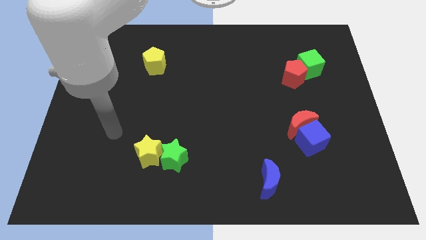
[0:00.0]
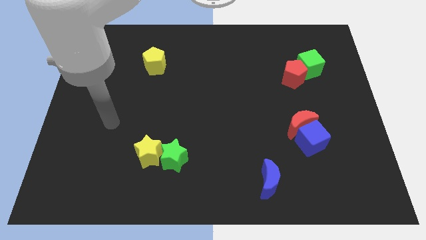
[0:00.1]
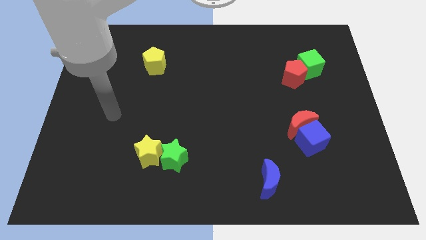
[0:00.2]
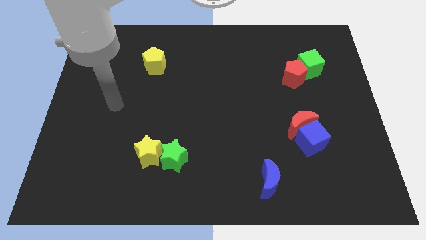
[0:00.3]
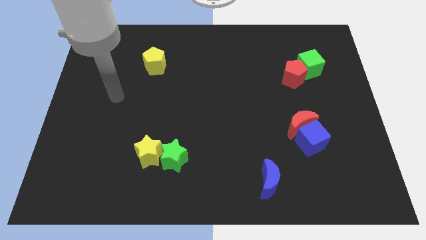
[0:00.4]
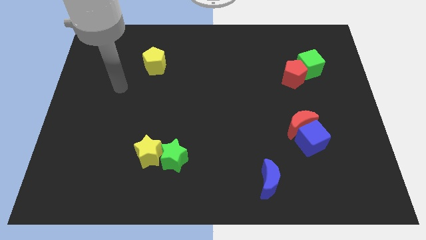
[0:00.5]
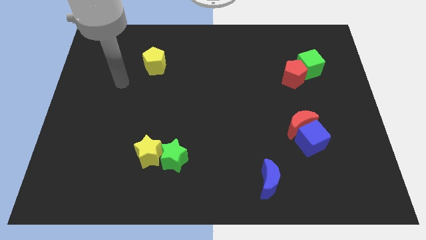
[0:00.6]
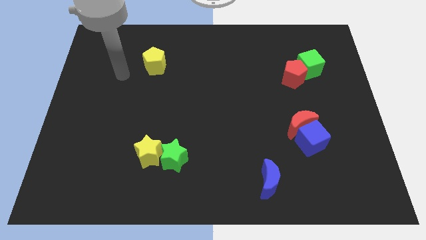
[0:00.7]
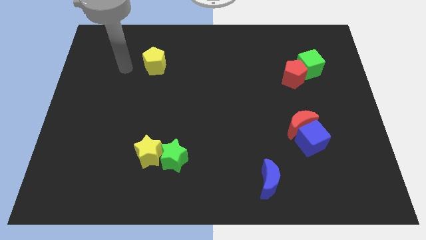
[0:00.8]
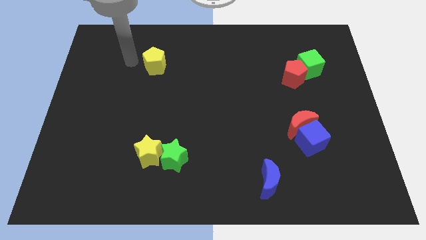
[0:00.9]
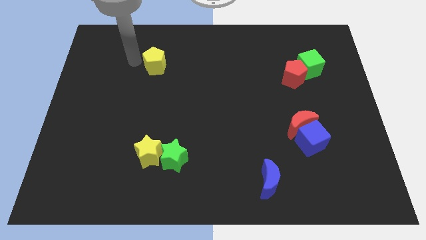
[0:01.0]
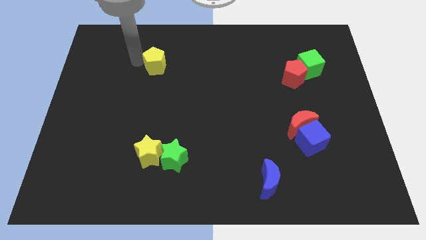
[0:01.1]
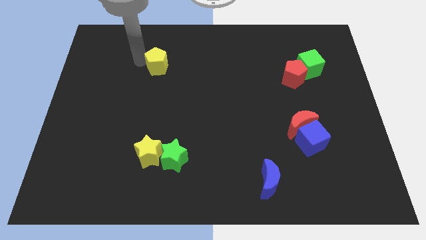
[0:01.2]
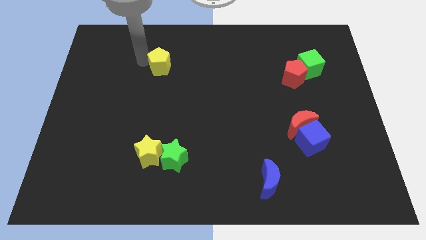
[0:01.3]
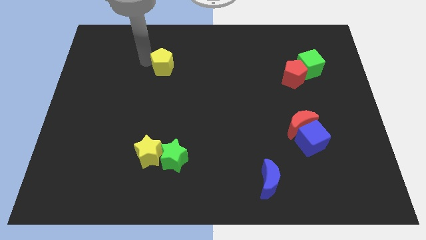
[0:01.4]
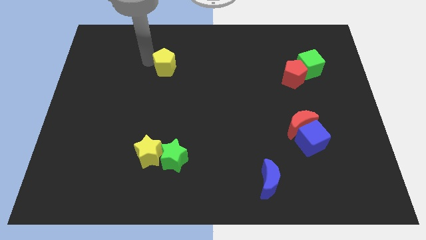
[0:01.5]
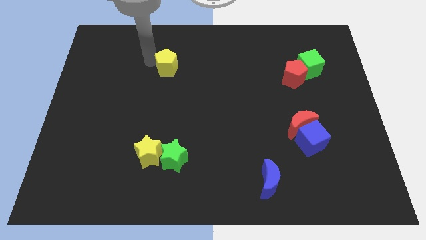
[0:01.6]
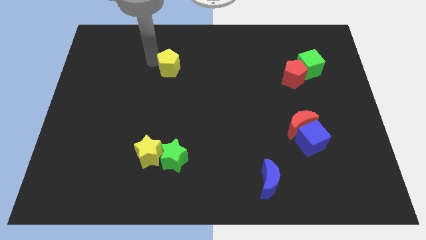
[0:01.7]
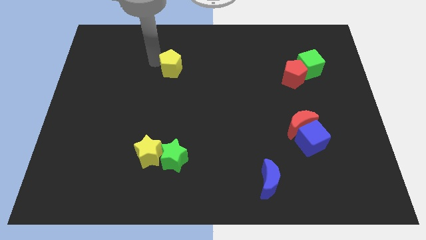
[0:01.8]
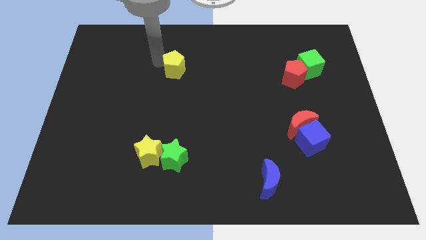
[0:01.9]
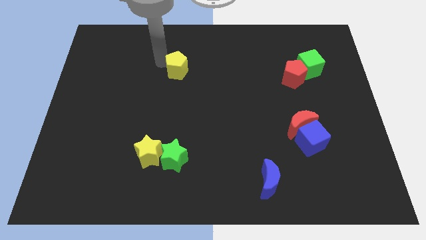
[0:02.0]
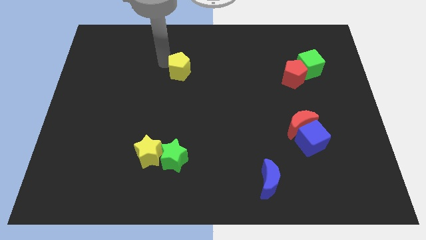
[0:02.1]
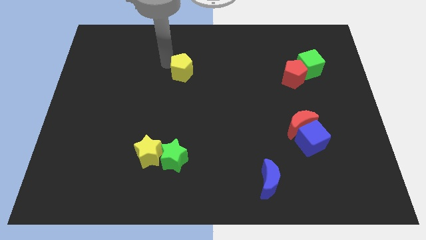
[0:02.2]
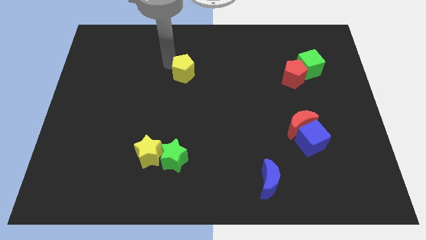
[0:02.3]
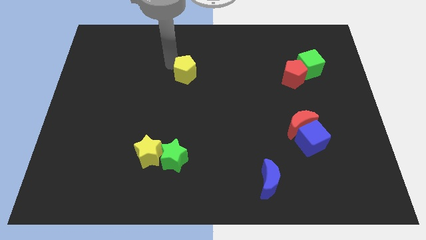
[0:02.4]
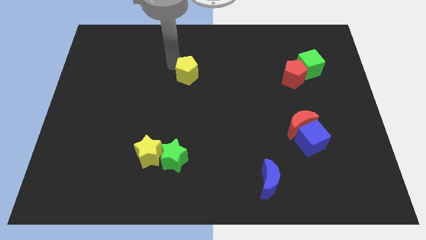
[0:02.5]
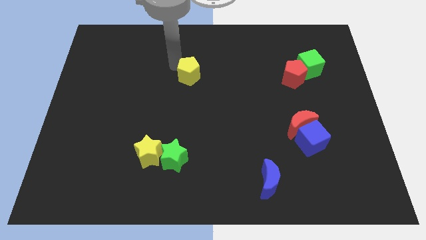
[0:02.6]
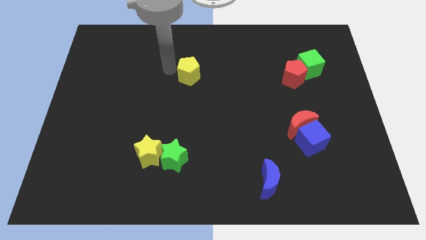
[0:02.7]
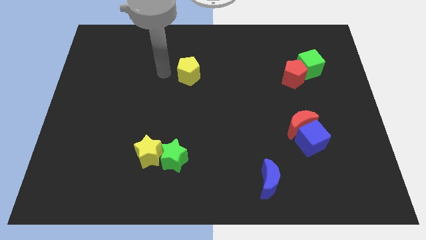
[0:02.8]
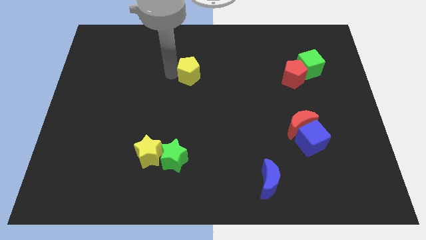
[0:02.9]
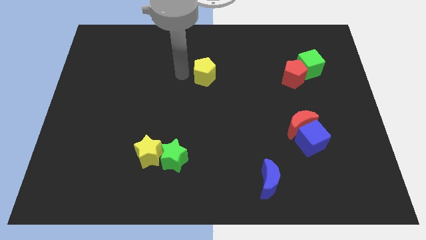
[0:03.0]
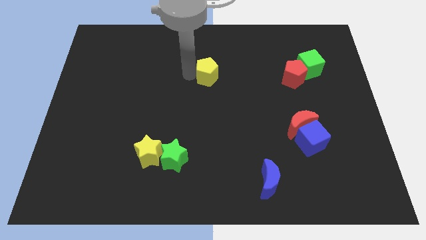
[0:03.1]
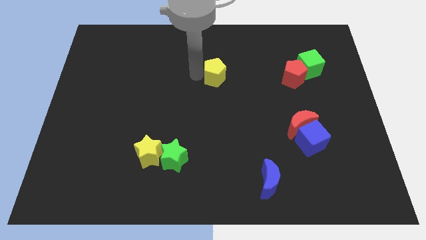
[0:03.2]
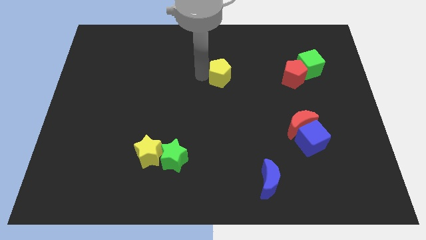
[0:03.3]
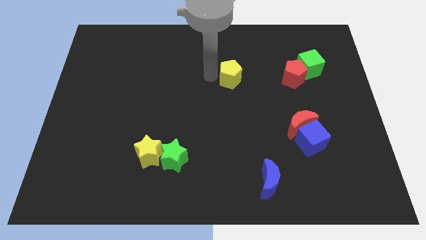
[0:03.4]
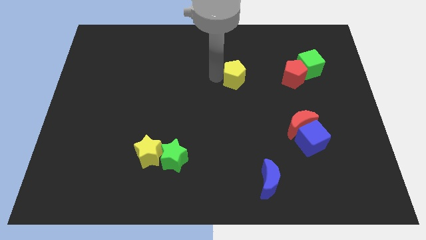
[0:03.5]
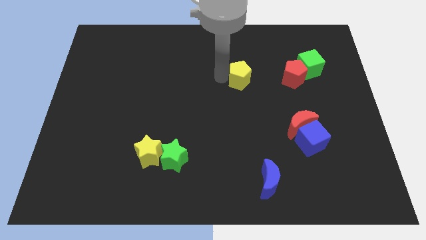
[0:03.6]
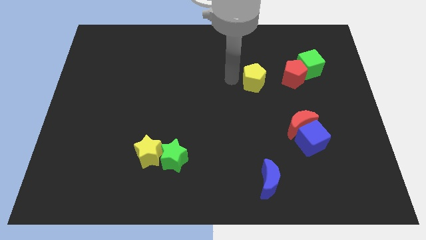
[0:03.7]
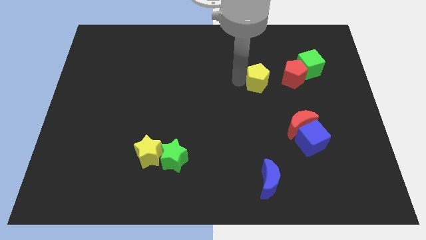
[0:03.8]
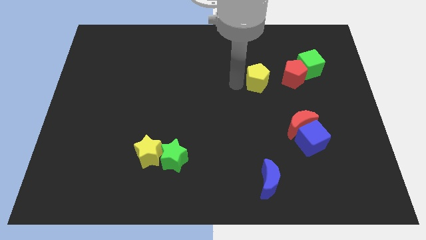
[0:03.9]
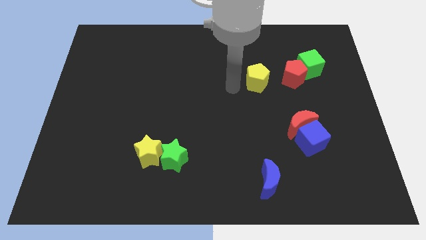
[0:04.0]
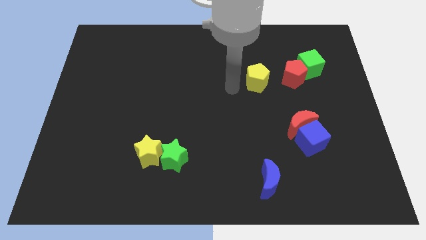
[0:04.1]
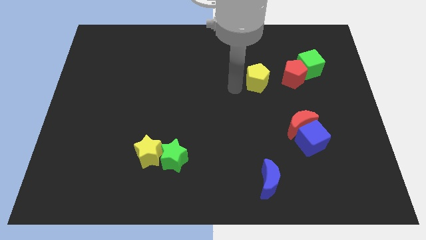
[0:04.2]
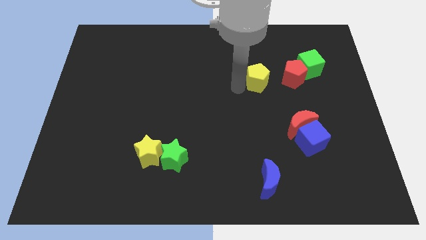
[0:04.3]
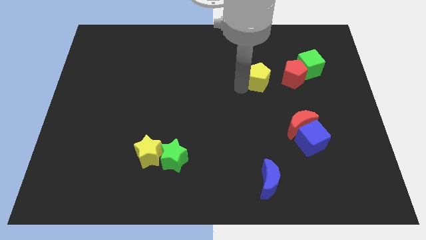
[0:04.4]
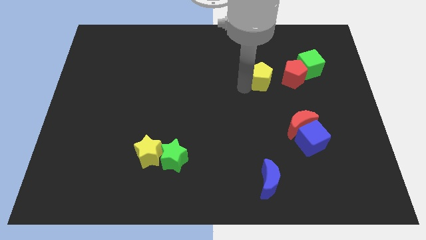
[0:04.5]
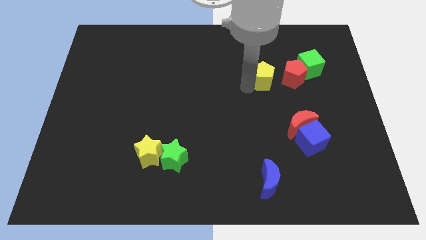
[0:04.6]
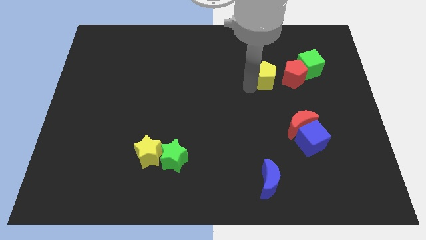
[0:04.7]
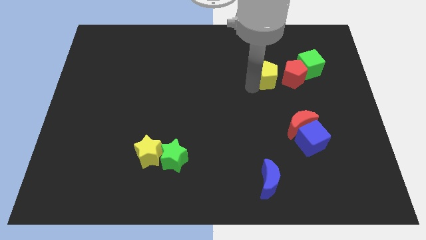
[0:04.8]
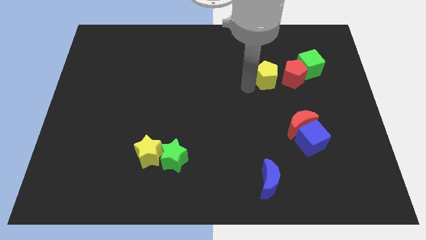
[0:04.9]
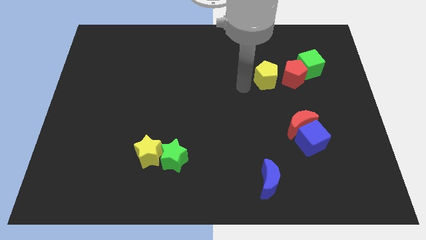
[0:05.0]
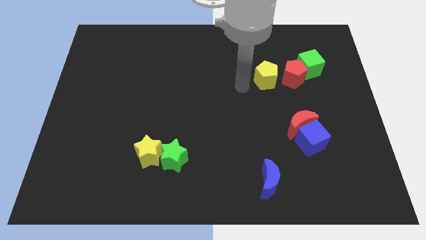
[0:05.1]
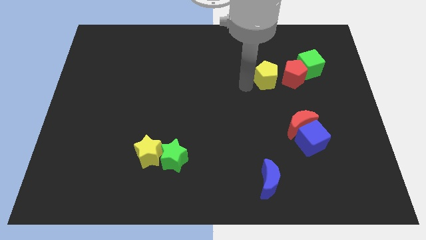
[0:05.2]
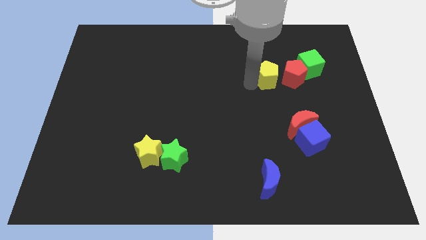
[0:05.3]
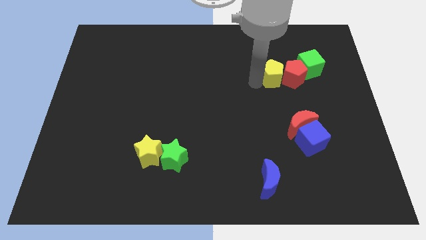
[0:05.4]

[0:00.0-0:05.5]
put the yellow pentagon towards the red pentagon

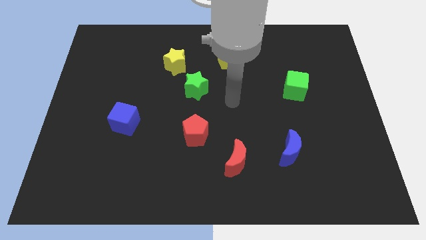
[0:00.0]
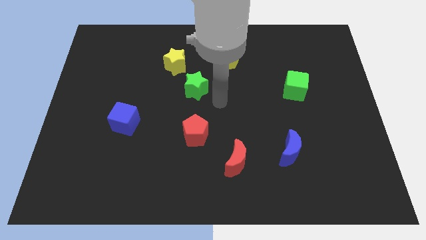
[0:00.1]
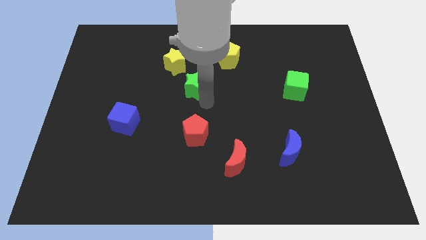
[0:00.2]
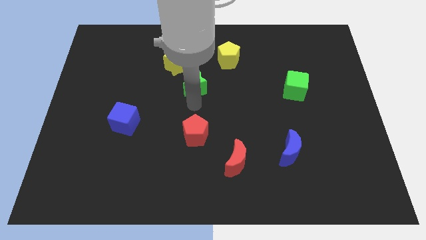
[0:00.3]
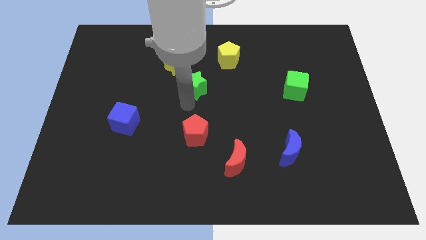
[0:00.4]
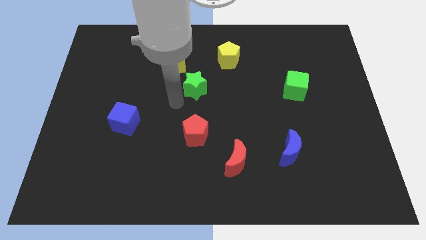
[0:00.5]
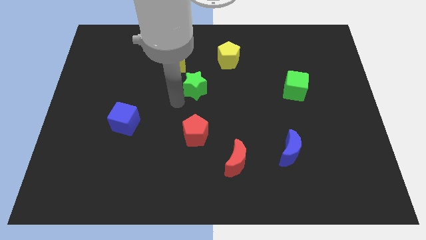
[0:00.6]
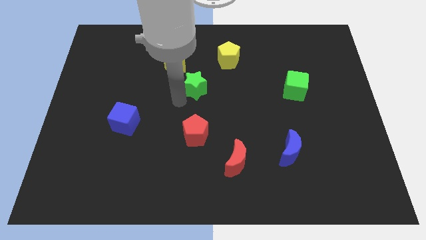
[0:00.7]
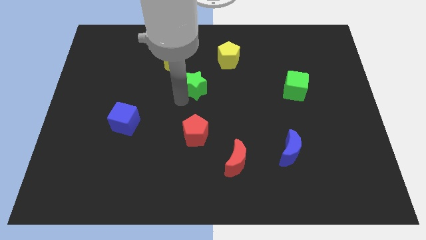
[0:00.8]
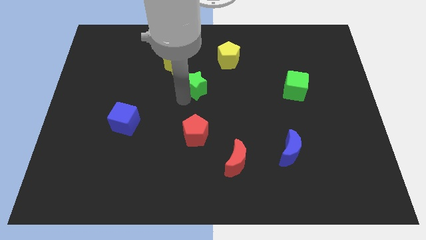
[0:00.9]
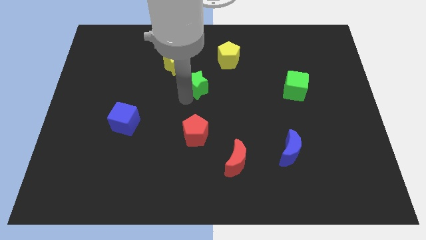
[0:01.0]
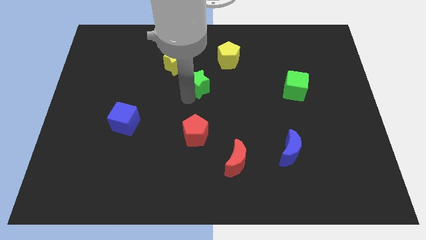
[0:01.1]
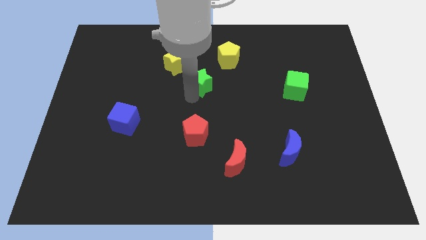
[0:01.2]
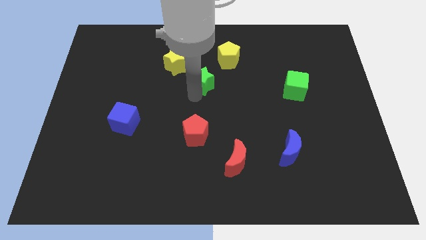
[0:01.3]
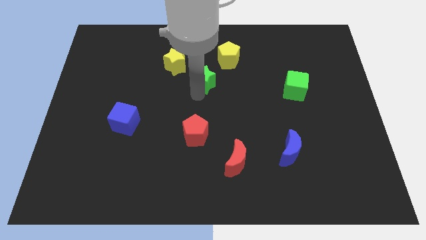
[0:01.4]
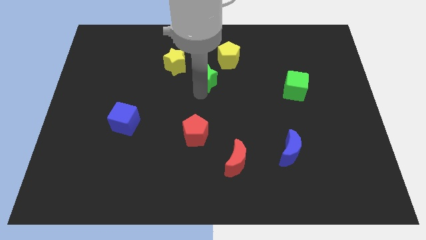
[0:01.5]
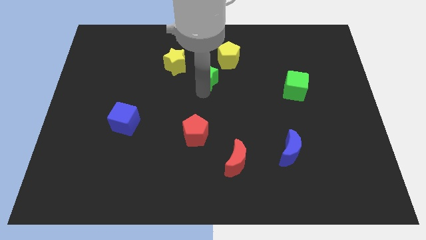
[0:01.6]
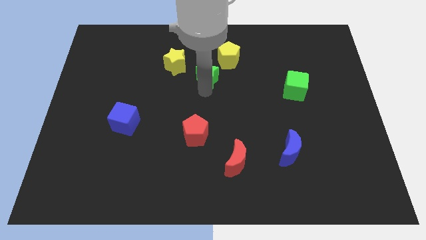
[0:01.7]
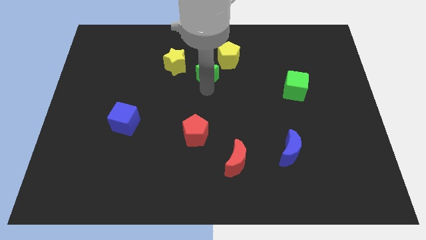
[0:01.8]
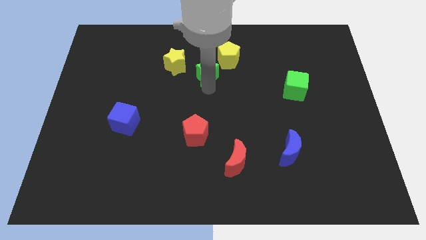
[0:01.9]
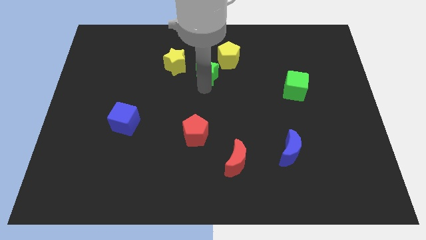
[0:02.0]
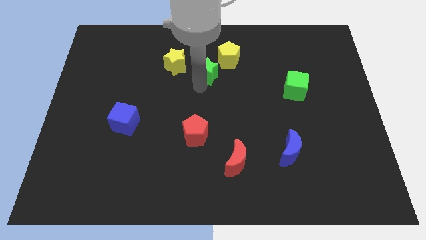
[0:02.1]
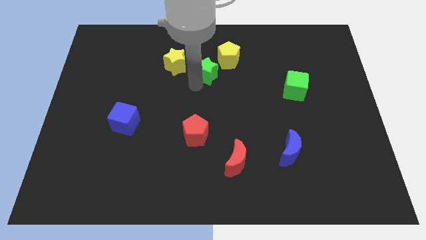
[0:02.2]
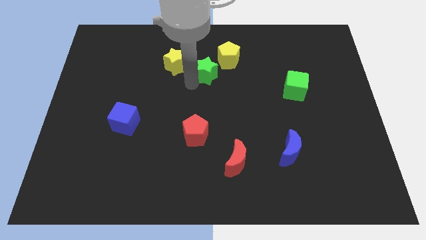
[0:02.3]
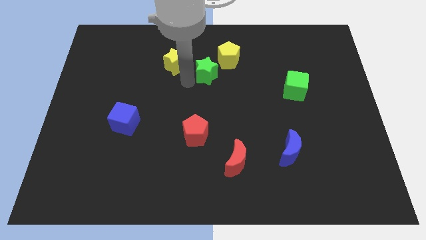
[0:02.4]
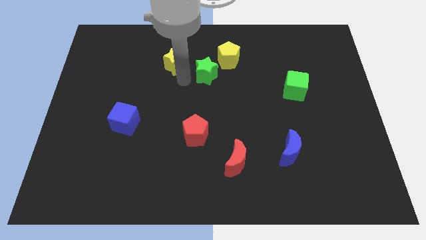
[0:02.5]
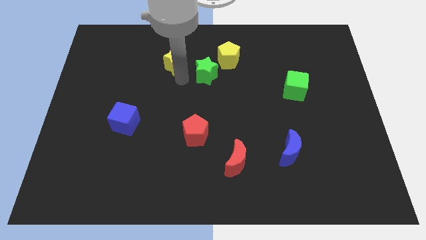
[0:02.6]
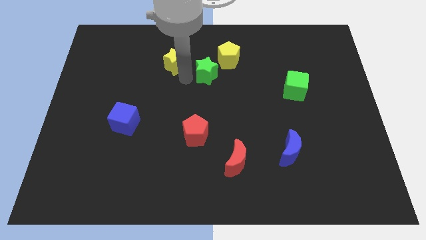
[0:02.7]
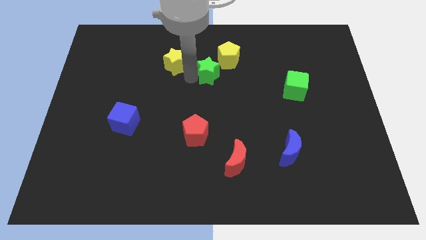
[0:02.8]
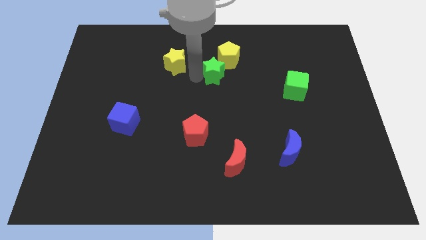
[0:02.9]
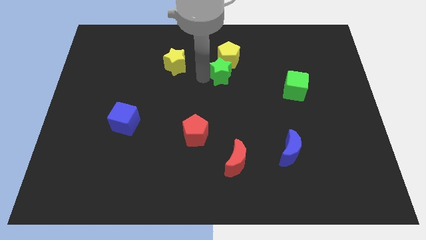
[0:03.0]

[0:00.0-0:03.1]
put the green star to the yellow pentagon
